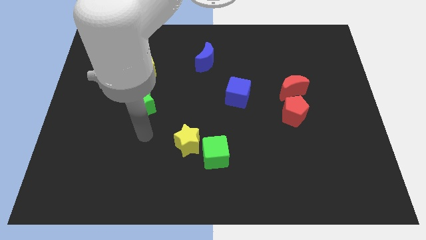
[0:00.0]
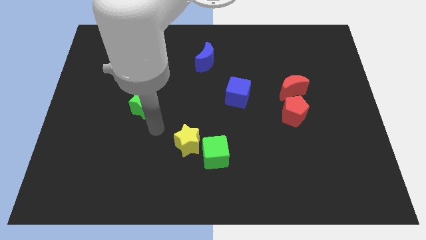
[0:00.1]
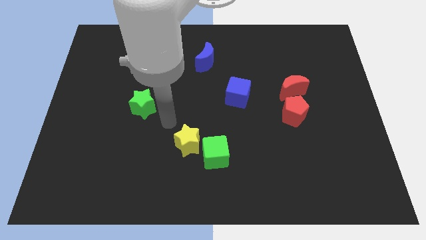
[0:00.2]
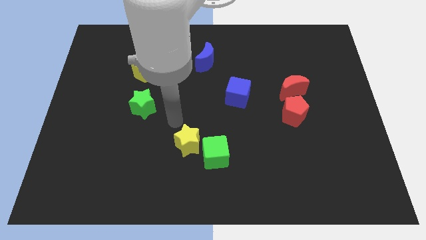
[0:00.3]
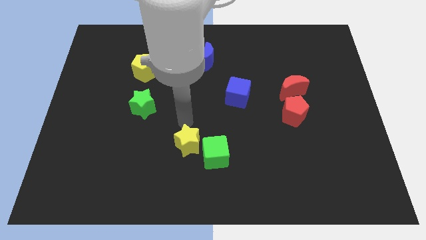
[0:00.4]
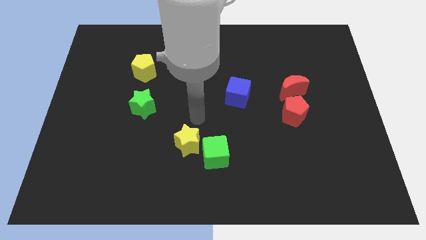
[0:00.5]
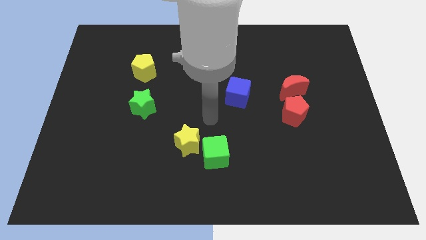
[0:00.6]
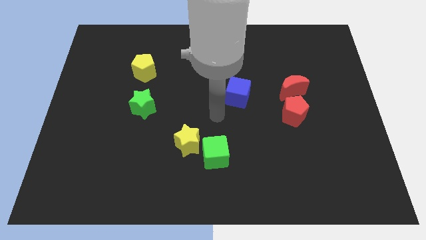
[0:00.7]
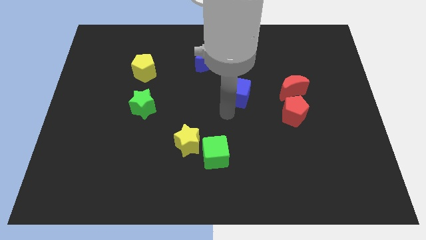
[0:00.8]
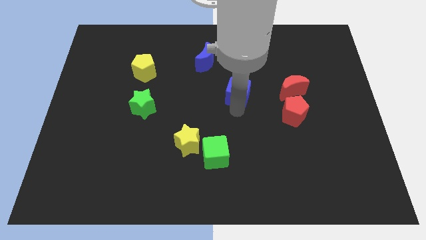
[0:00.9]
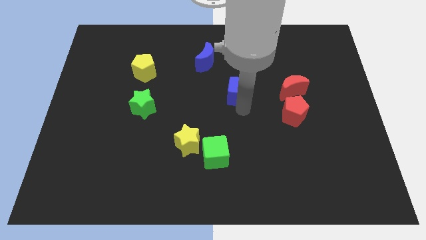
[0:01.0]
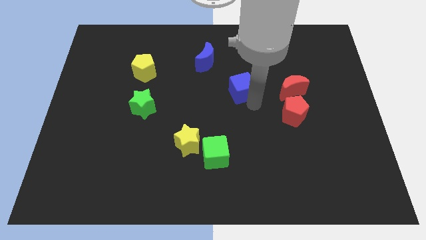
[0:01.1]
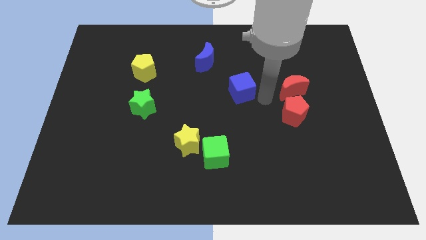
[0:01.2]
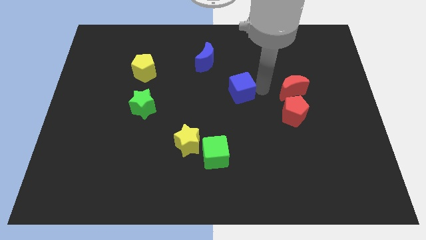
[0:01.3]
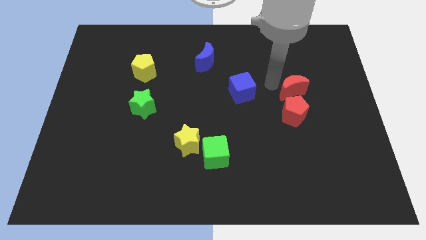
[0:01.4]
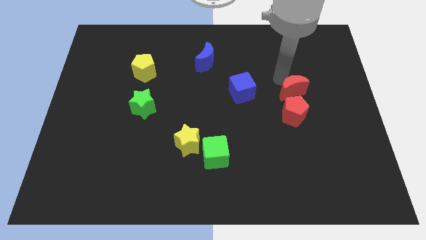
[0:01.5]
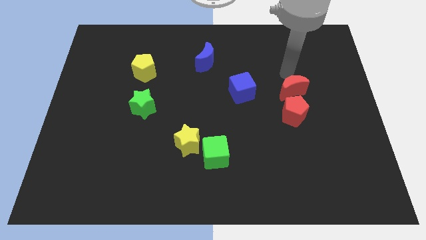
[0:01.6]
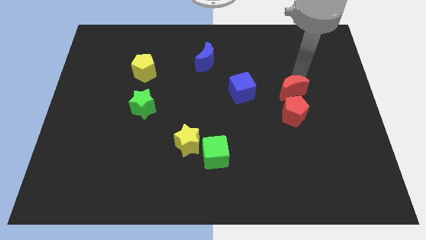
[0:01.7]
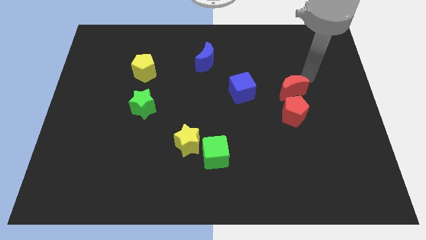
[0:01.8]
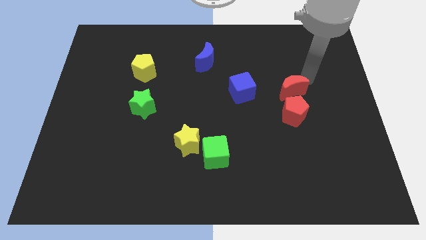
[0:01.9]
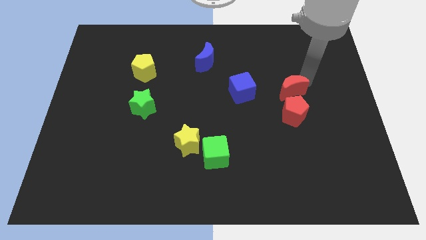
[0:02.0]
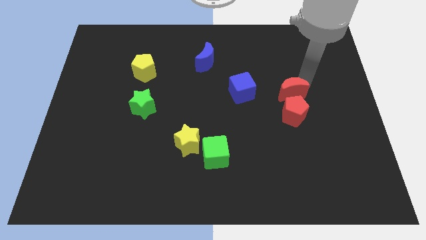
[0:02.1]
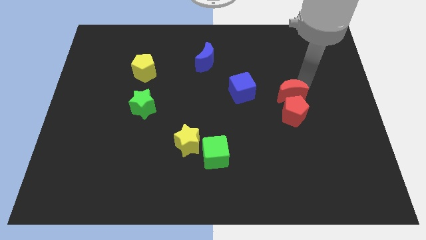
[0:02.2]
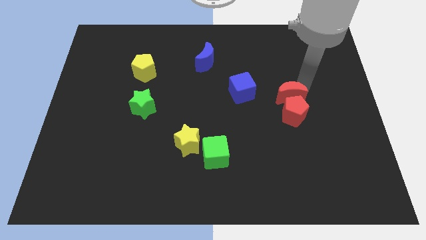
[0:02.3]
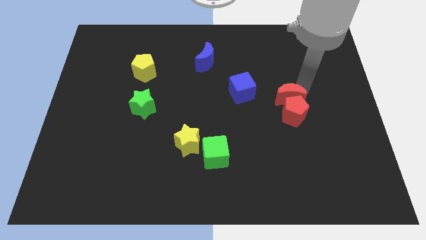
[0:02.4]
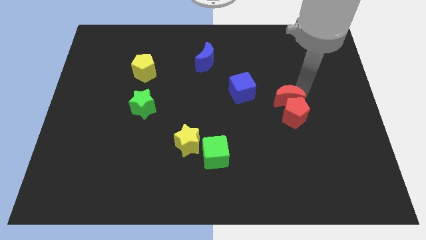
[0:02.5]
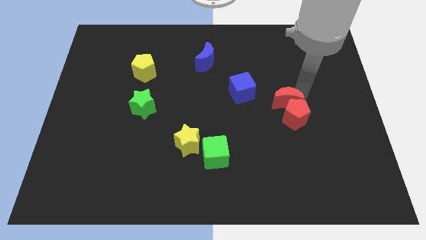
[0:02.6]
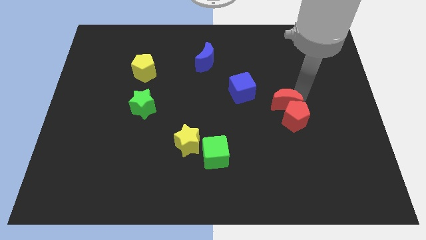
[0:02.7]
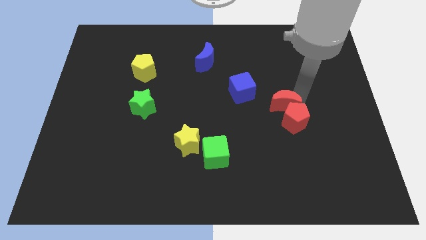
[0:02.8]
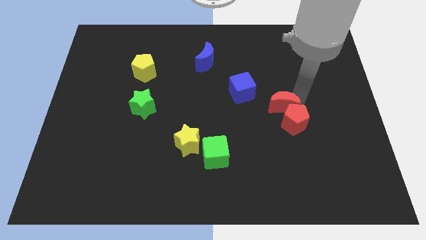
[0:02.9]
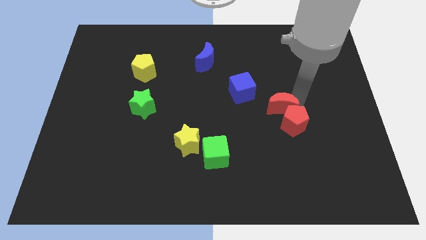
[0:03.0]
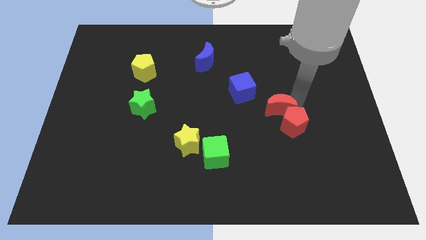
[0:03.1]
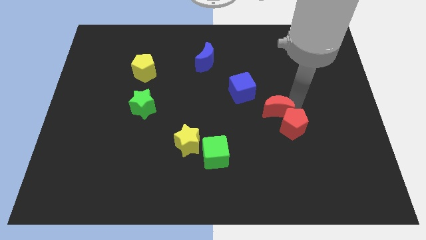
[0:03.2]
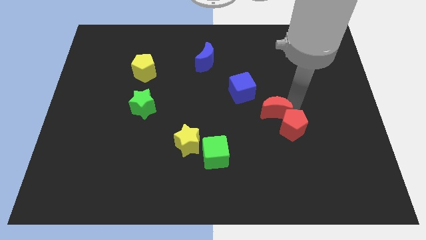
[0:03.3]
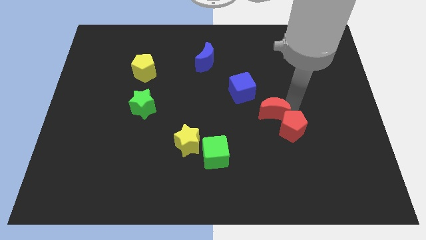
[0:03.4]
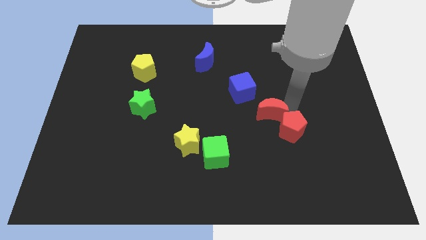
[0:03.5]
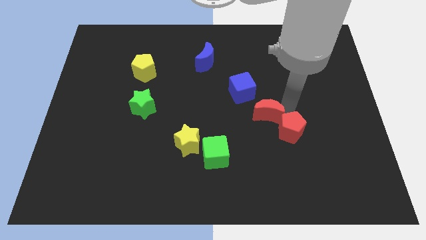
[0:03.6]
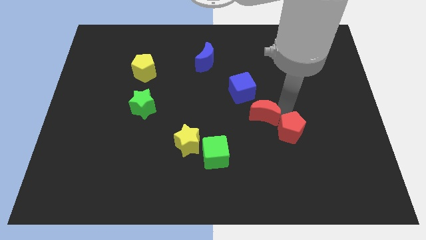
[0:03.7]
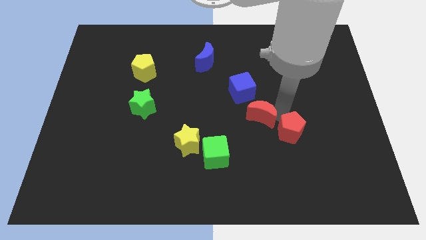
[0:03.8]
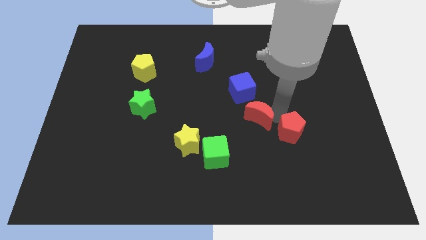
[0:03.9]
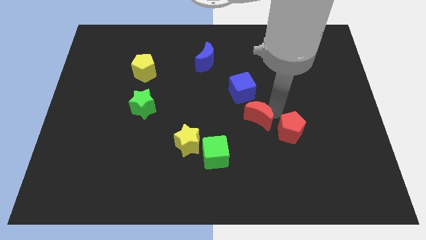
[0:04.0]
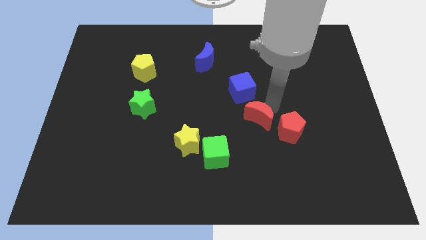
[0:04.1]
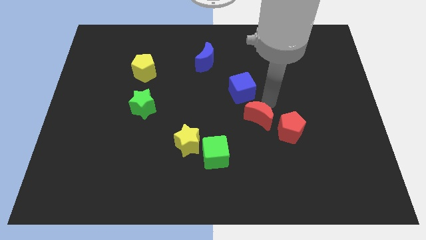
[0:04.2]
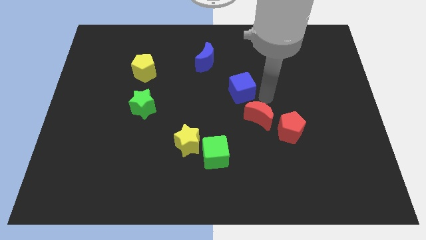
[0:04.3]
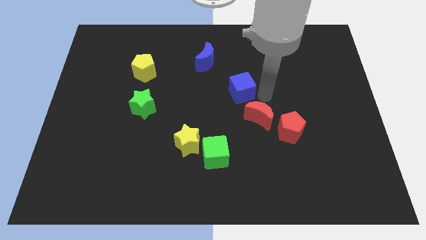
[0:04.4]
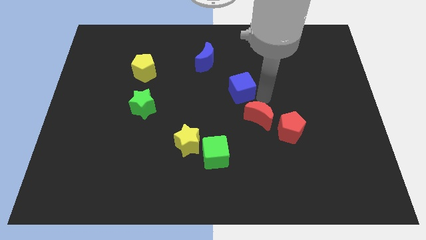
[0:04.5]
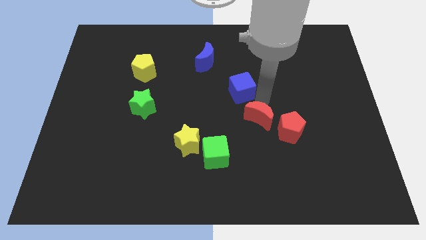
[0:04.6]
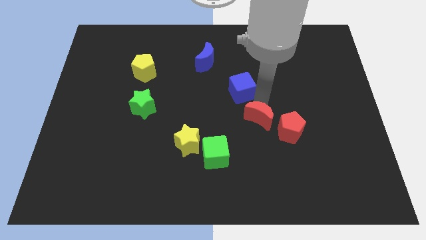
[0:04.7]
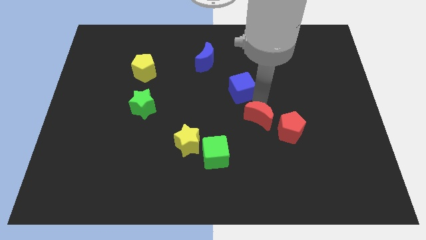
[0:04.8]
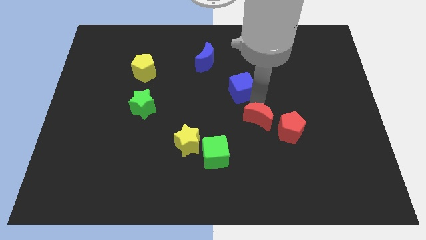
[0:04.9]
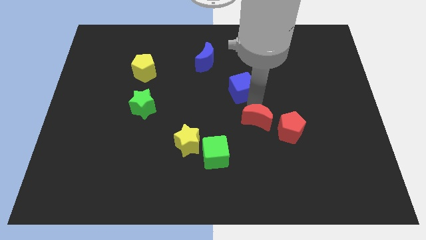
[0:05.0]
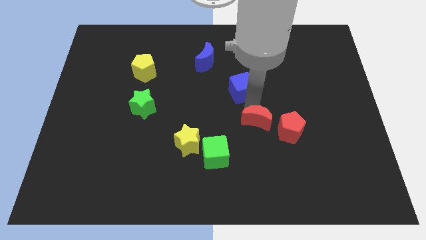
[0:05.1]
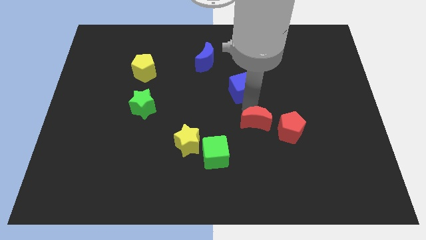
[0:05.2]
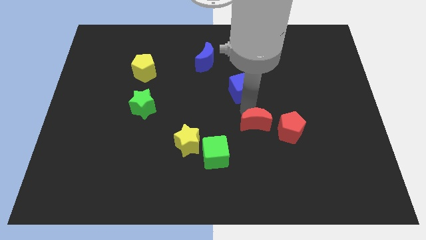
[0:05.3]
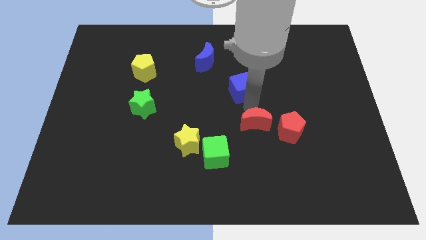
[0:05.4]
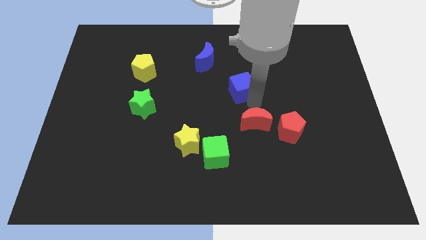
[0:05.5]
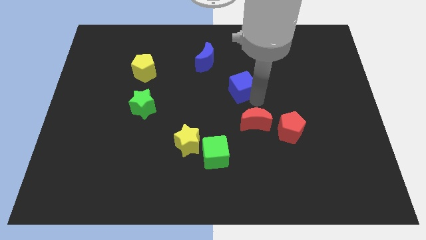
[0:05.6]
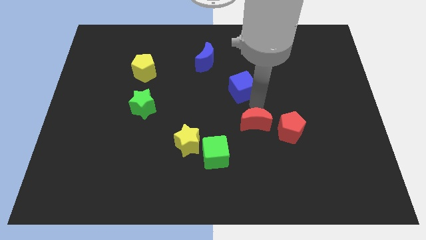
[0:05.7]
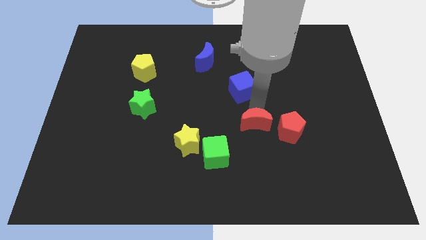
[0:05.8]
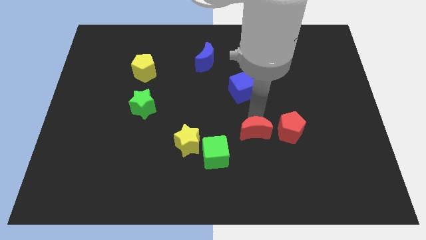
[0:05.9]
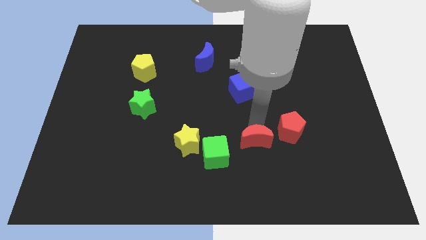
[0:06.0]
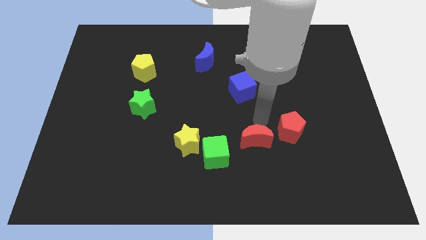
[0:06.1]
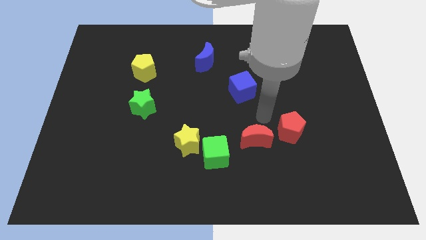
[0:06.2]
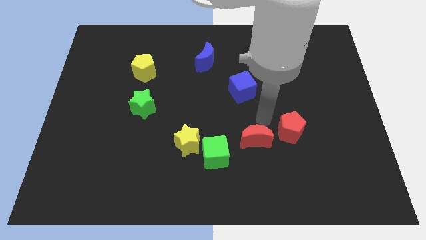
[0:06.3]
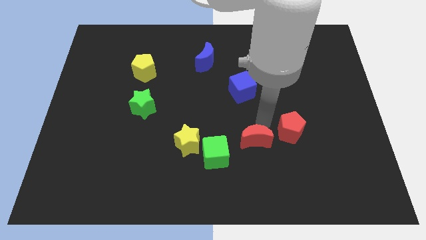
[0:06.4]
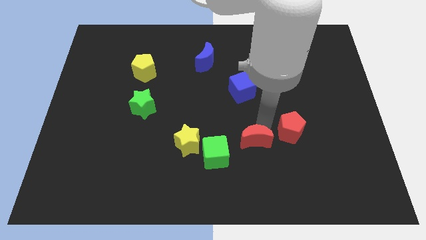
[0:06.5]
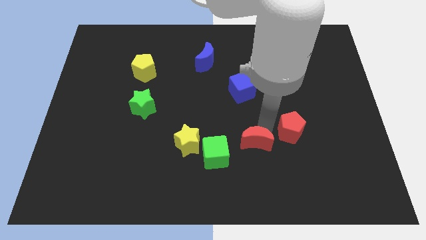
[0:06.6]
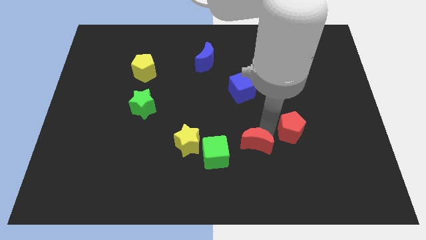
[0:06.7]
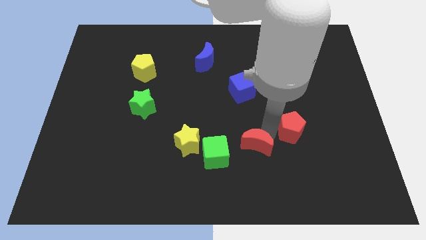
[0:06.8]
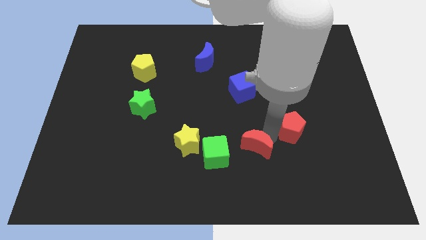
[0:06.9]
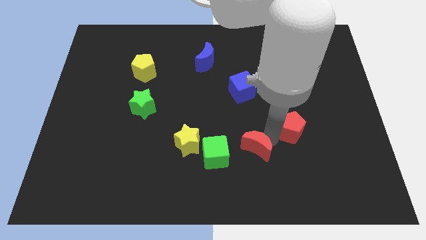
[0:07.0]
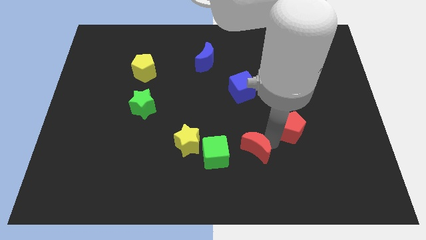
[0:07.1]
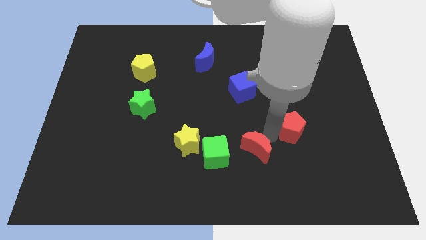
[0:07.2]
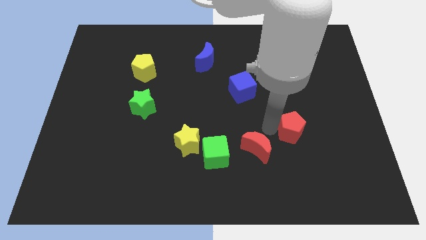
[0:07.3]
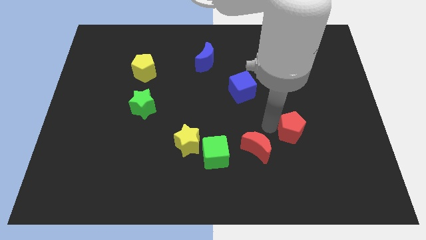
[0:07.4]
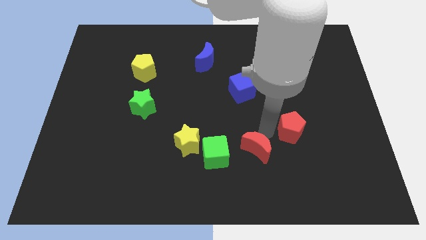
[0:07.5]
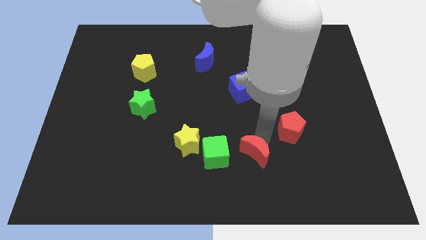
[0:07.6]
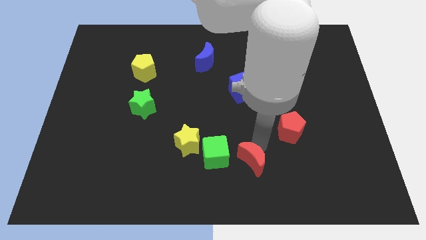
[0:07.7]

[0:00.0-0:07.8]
move the red moon diagonally down and to the right of the green cube

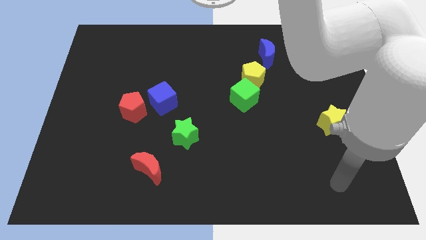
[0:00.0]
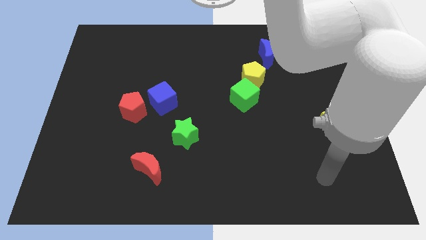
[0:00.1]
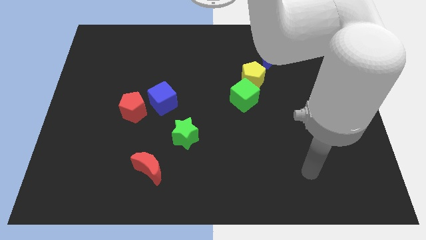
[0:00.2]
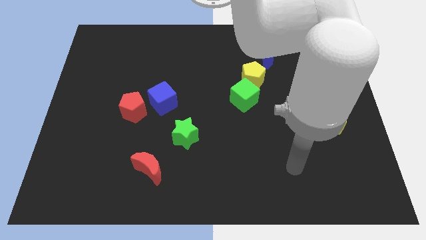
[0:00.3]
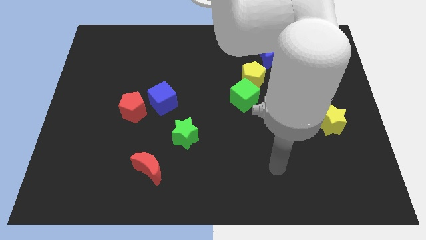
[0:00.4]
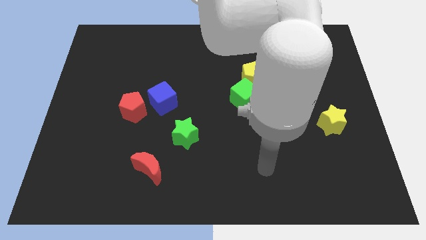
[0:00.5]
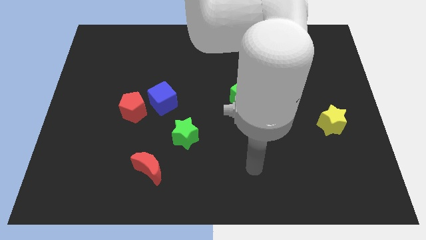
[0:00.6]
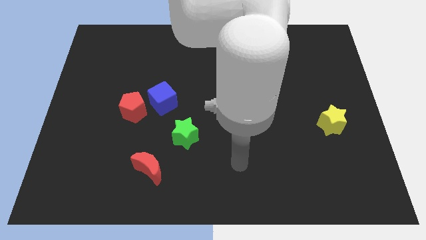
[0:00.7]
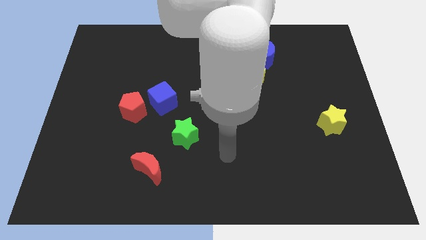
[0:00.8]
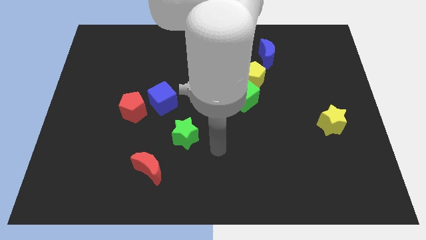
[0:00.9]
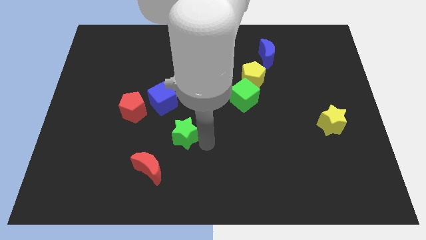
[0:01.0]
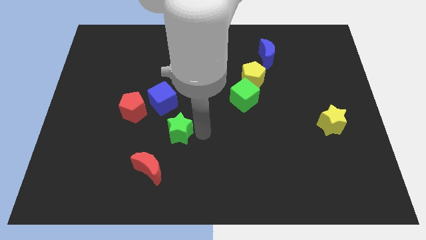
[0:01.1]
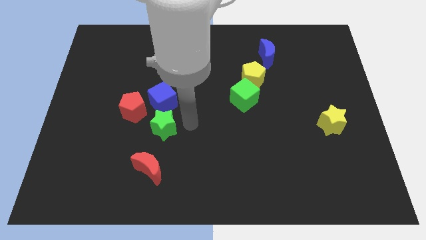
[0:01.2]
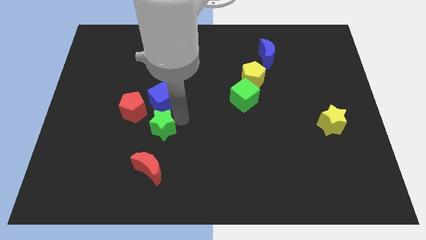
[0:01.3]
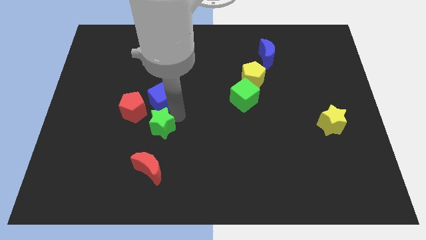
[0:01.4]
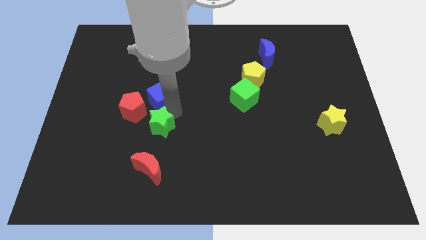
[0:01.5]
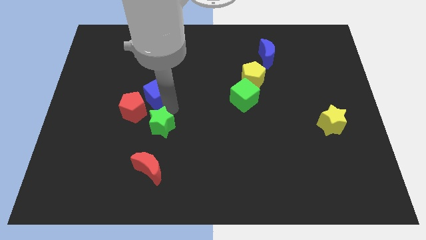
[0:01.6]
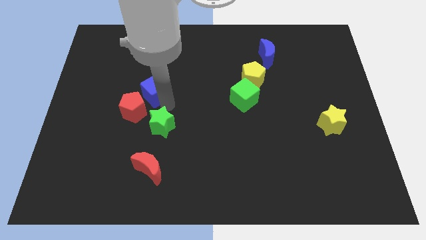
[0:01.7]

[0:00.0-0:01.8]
put the blue cube to the top side of the red pentagon
